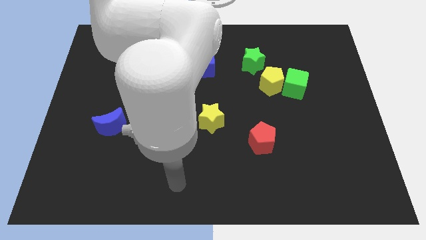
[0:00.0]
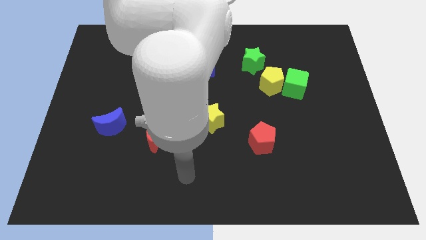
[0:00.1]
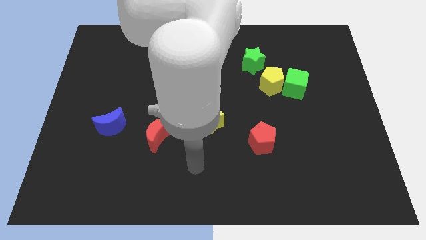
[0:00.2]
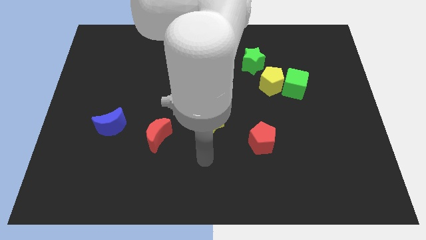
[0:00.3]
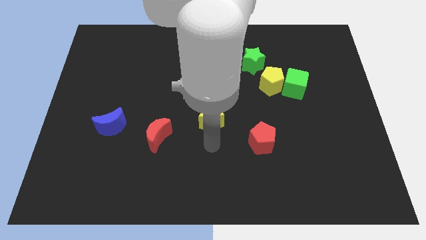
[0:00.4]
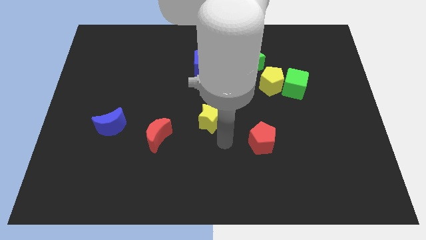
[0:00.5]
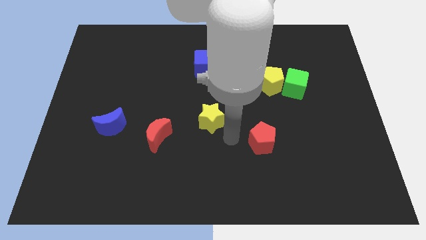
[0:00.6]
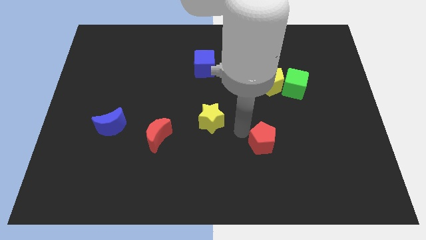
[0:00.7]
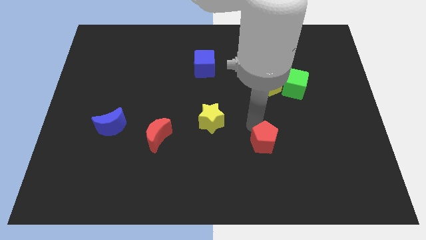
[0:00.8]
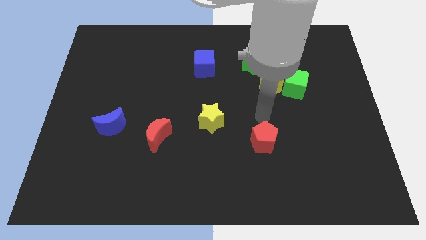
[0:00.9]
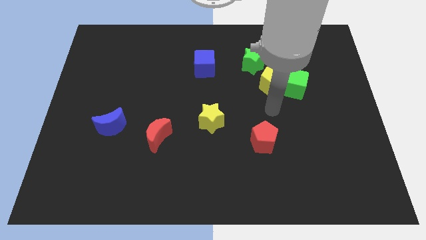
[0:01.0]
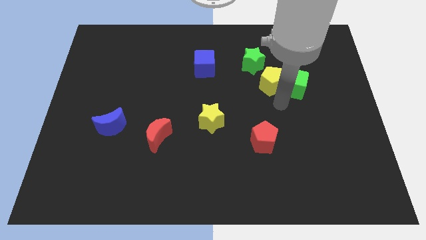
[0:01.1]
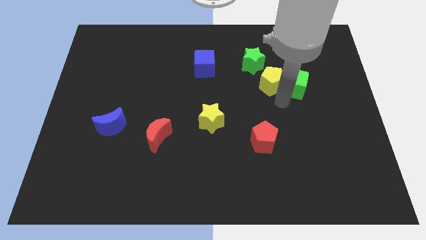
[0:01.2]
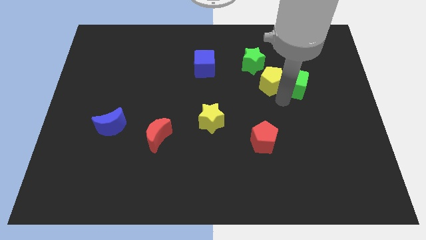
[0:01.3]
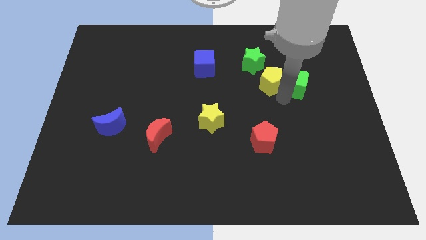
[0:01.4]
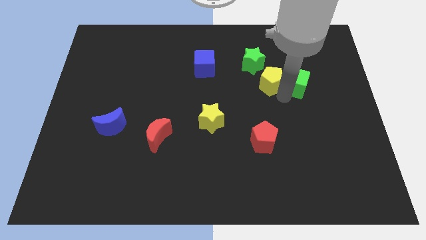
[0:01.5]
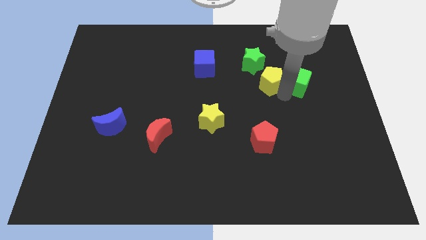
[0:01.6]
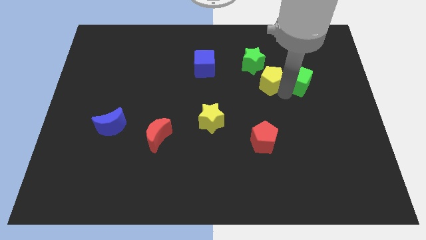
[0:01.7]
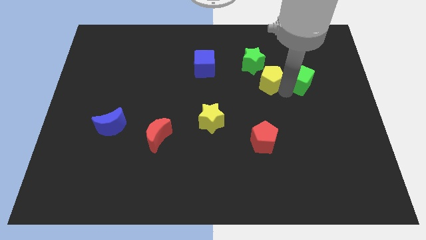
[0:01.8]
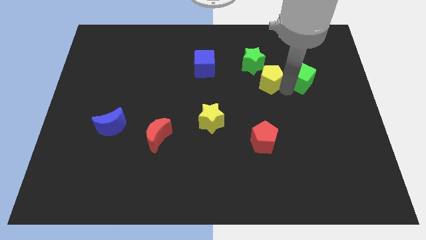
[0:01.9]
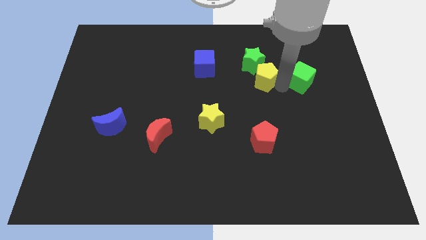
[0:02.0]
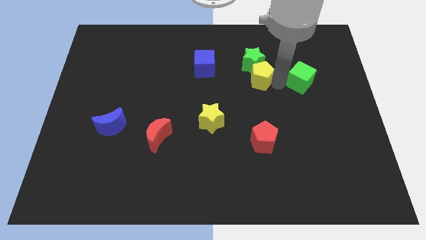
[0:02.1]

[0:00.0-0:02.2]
move the green cube away from the yellow pentagon

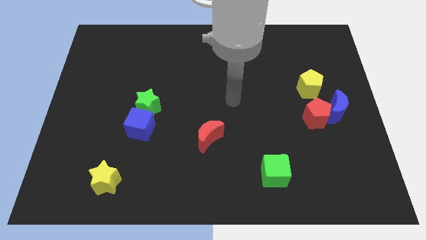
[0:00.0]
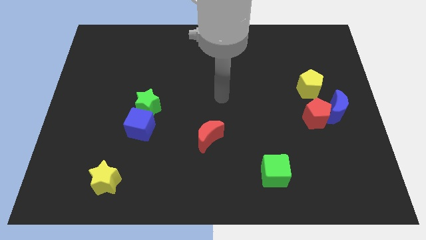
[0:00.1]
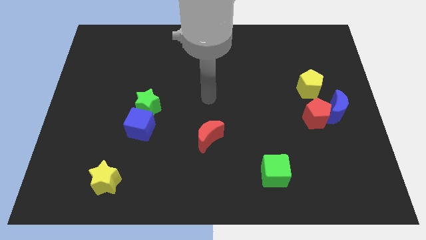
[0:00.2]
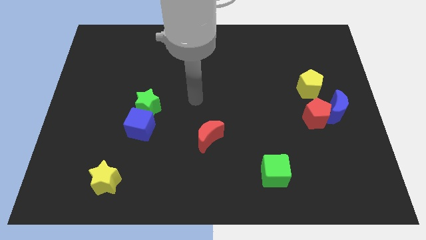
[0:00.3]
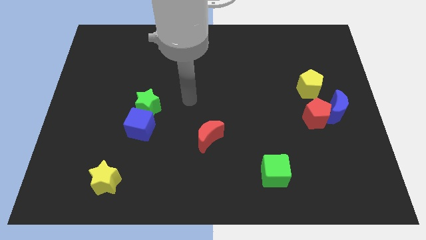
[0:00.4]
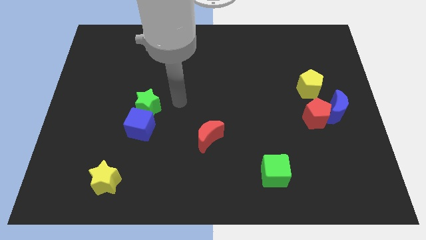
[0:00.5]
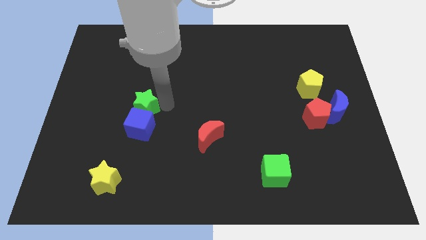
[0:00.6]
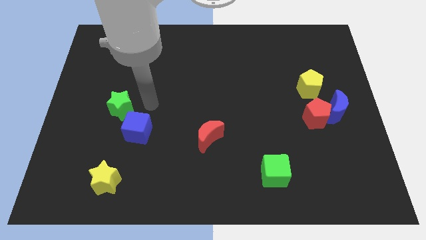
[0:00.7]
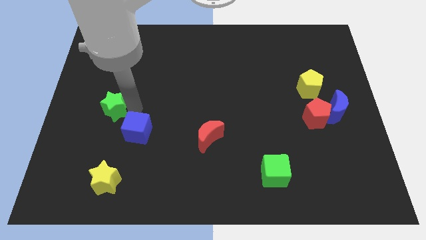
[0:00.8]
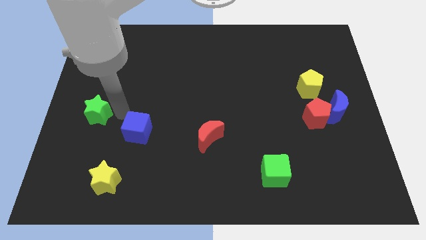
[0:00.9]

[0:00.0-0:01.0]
pull the blue cube apart from the green star

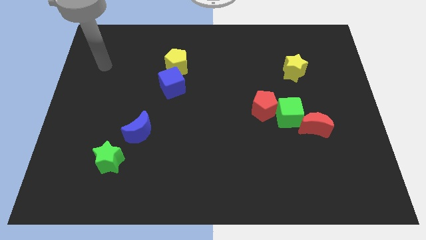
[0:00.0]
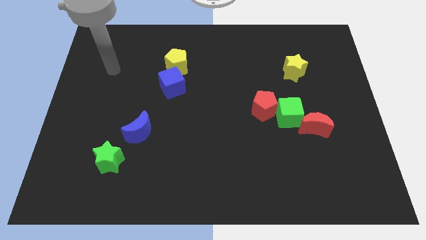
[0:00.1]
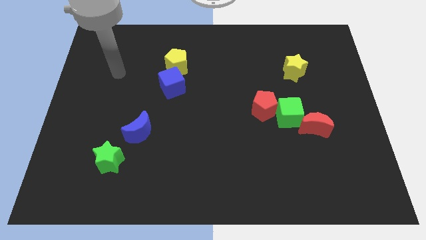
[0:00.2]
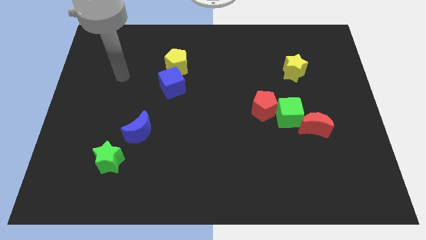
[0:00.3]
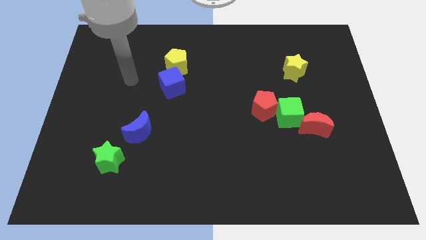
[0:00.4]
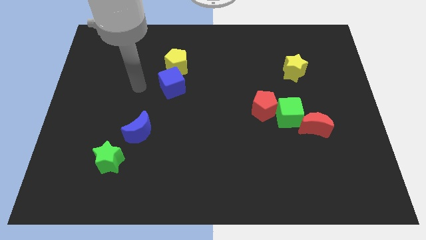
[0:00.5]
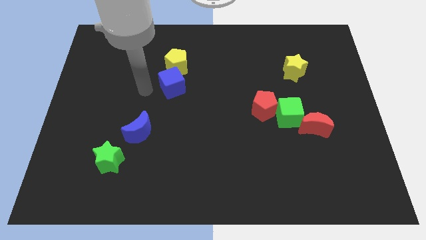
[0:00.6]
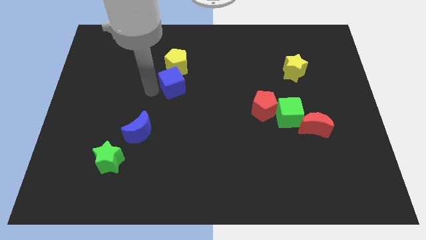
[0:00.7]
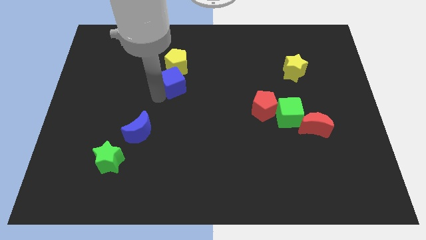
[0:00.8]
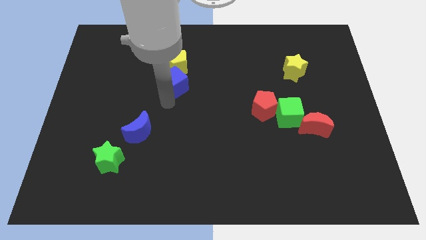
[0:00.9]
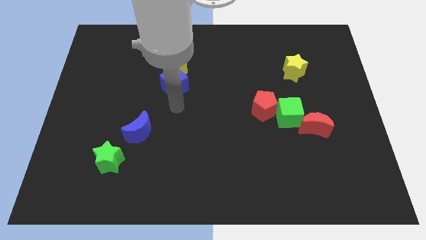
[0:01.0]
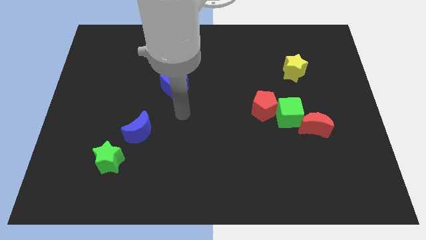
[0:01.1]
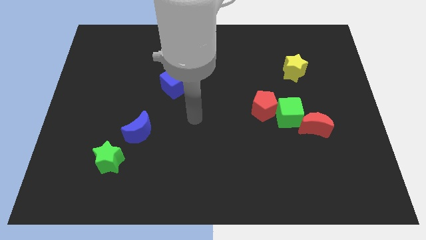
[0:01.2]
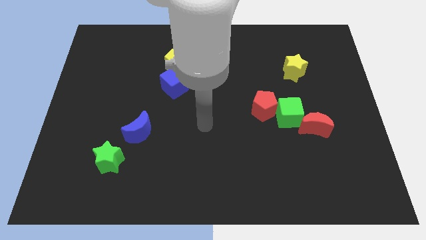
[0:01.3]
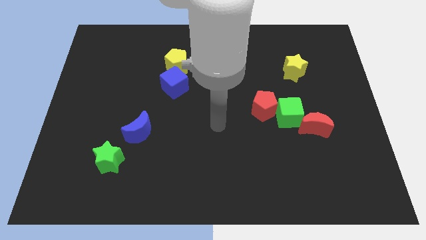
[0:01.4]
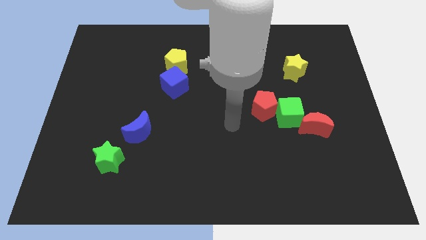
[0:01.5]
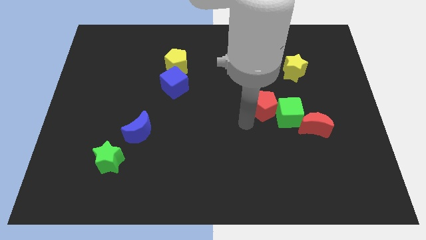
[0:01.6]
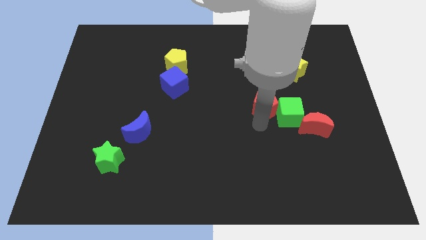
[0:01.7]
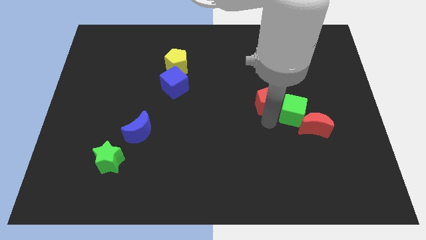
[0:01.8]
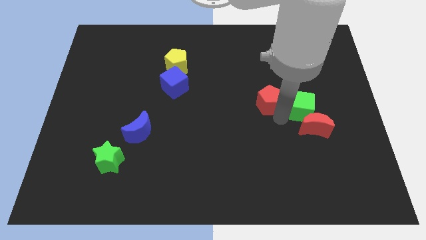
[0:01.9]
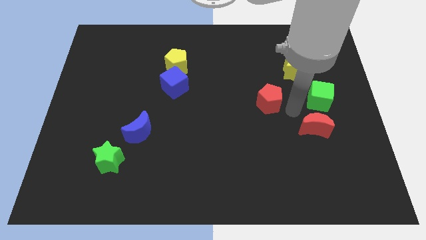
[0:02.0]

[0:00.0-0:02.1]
pull the red pentagon apart from the green cube

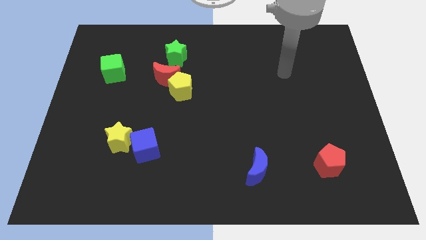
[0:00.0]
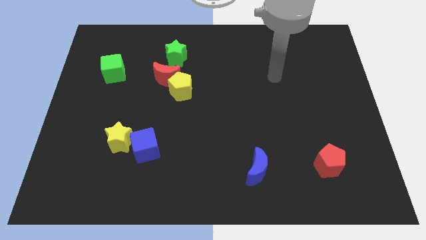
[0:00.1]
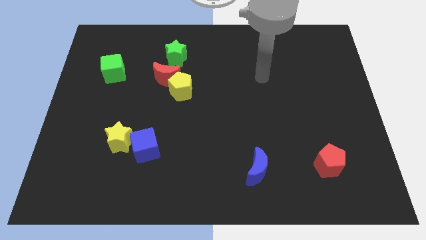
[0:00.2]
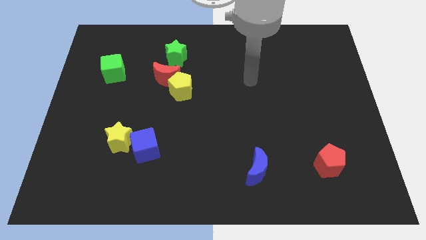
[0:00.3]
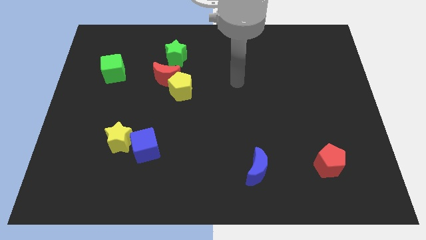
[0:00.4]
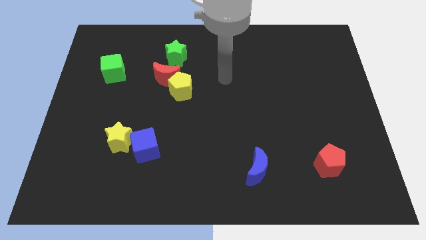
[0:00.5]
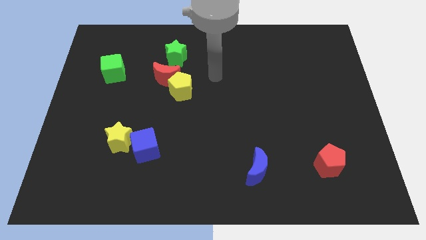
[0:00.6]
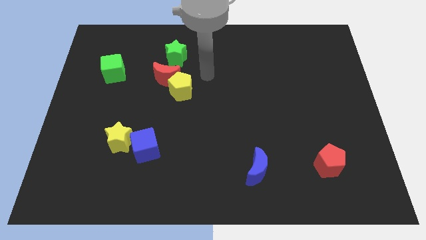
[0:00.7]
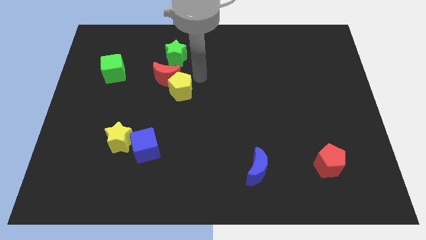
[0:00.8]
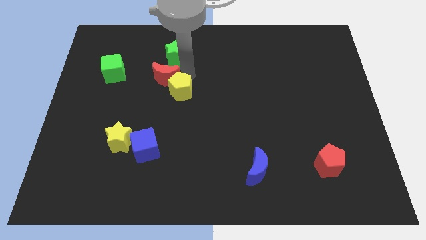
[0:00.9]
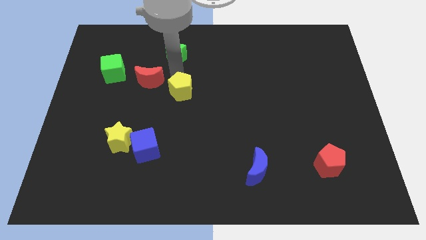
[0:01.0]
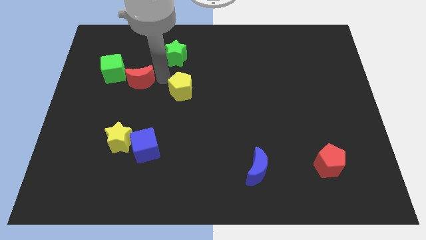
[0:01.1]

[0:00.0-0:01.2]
pull the yellow pentagon apart from the red moon

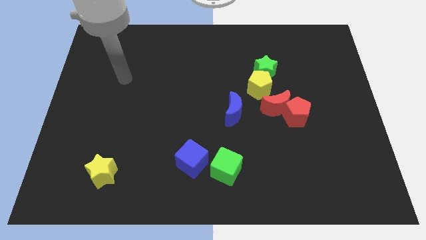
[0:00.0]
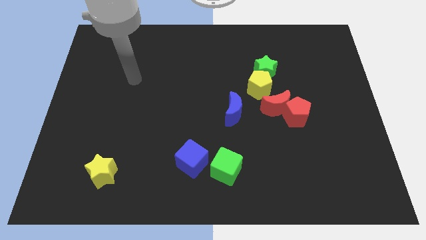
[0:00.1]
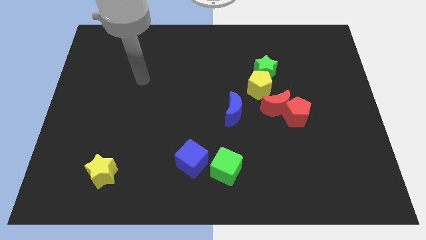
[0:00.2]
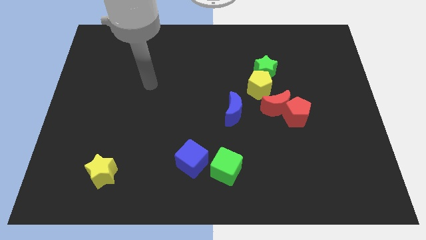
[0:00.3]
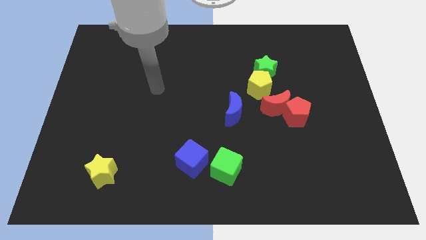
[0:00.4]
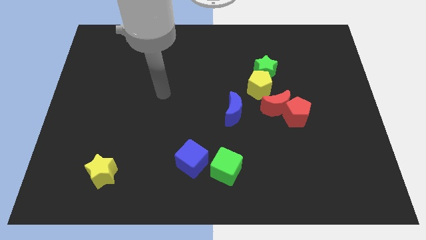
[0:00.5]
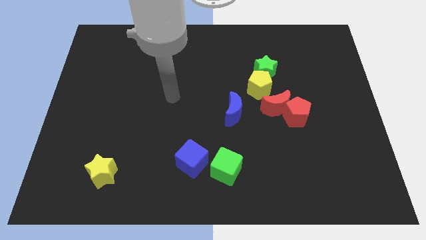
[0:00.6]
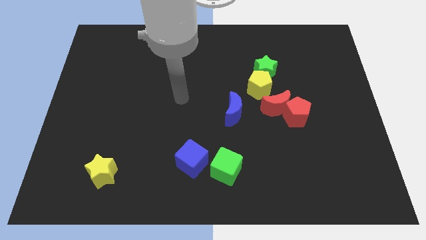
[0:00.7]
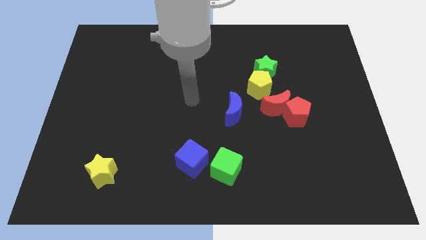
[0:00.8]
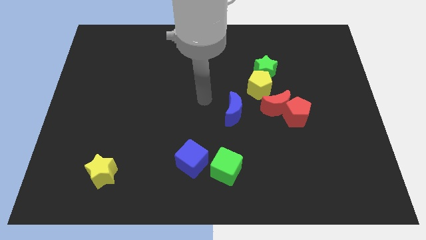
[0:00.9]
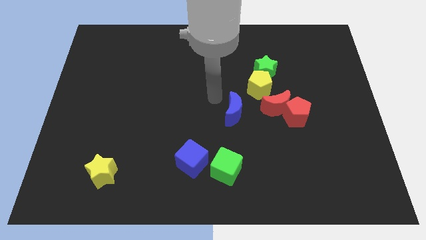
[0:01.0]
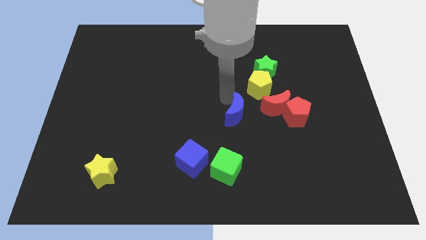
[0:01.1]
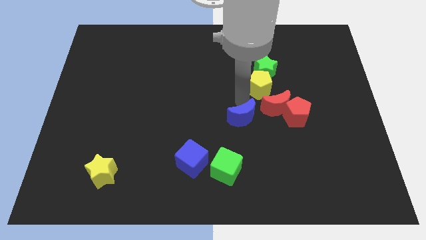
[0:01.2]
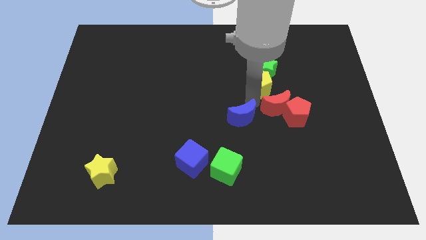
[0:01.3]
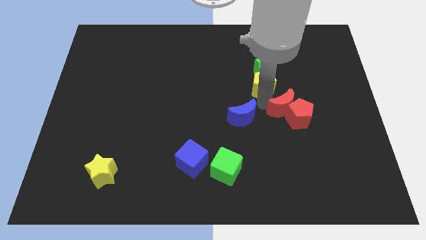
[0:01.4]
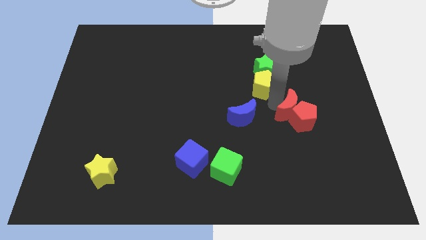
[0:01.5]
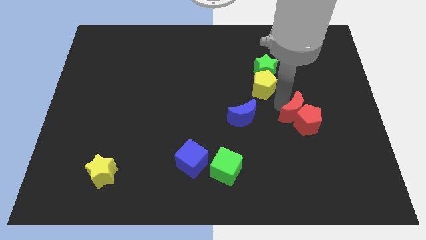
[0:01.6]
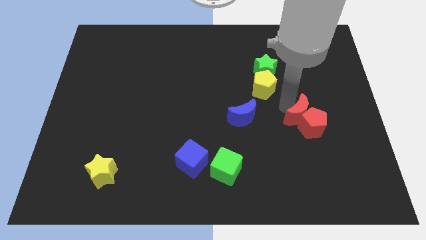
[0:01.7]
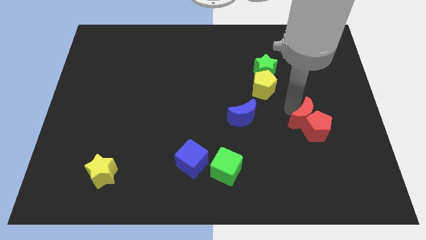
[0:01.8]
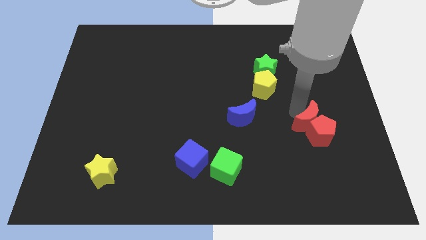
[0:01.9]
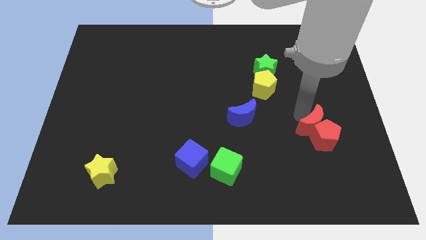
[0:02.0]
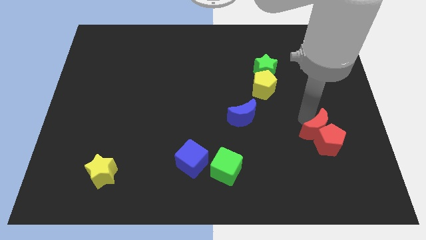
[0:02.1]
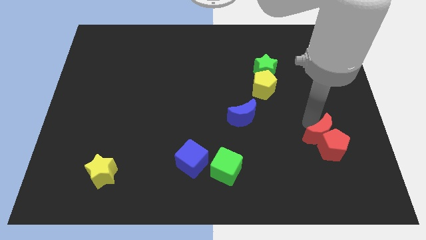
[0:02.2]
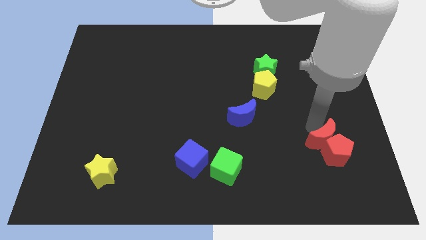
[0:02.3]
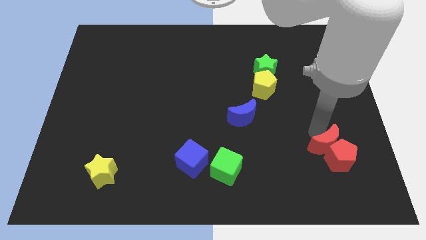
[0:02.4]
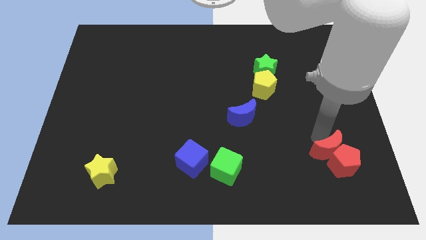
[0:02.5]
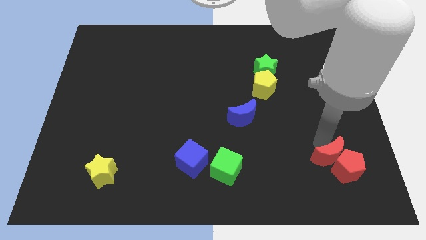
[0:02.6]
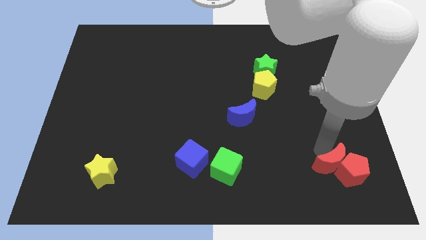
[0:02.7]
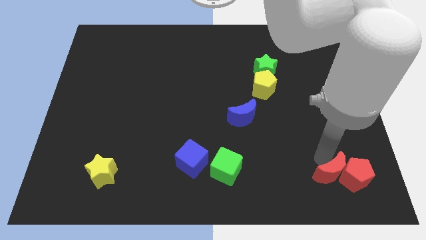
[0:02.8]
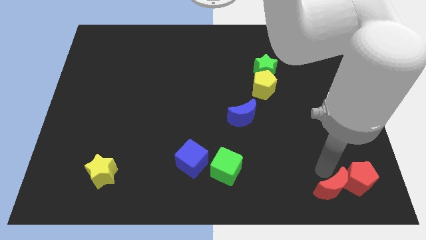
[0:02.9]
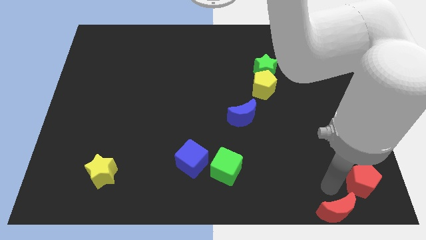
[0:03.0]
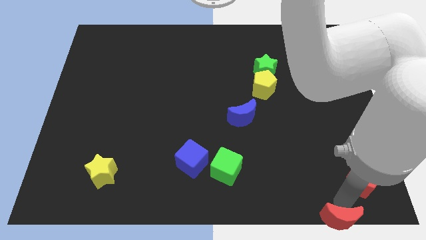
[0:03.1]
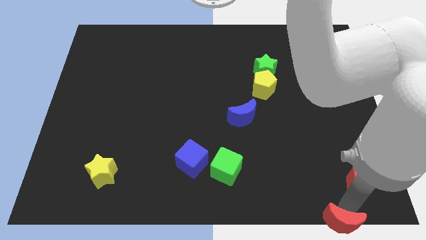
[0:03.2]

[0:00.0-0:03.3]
separate the red pentagon from the red moon
